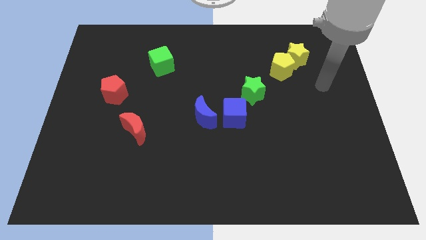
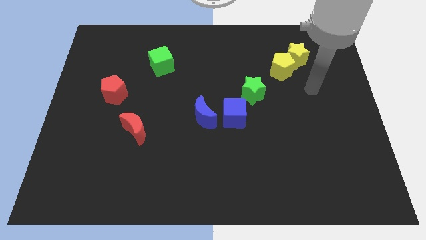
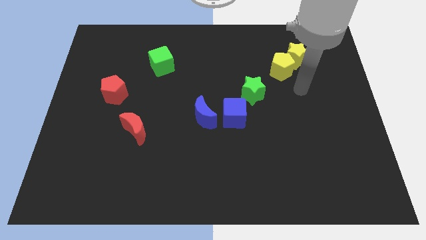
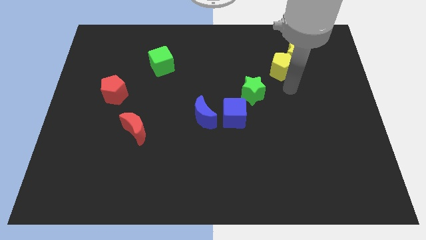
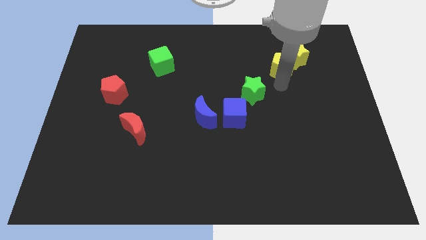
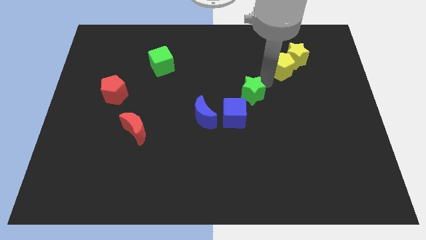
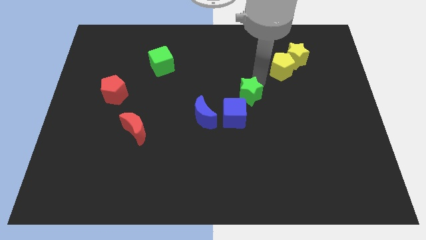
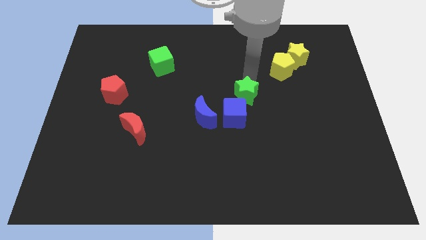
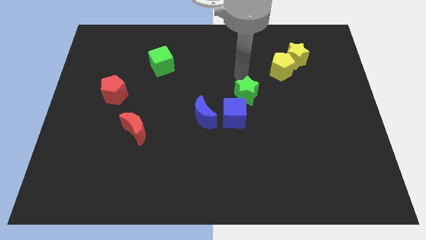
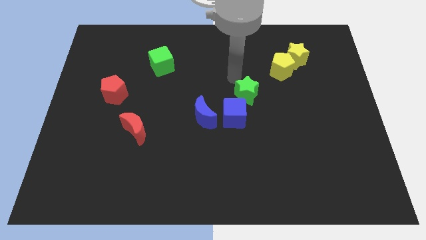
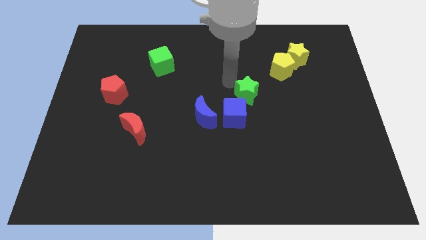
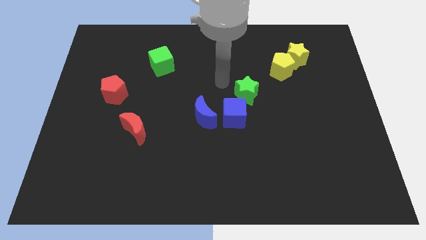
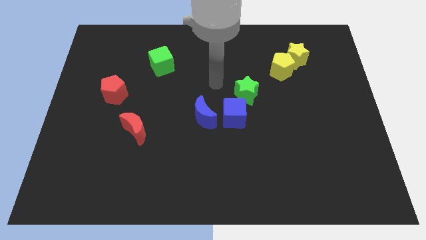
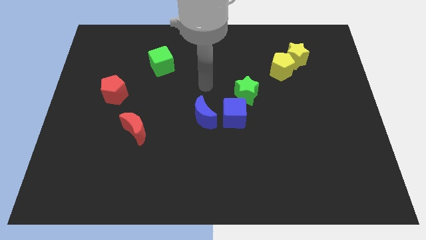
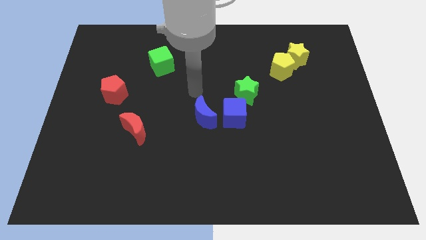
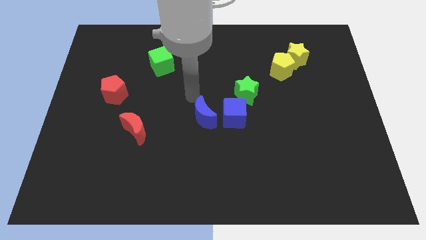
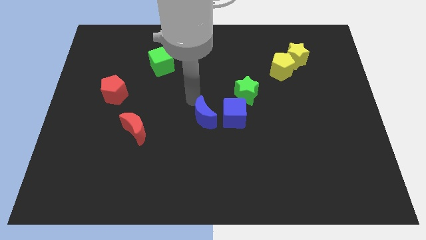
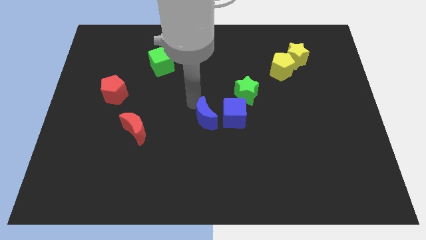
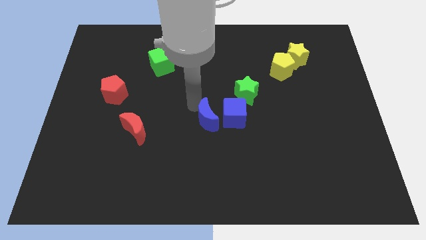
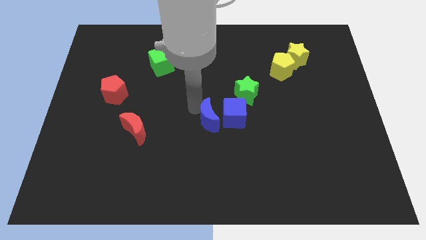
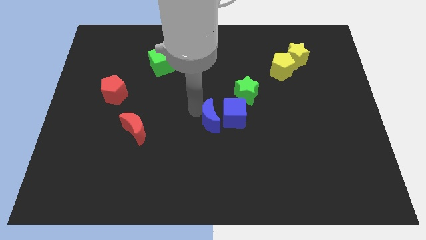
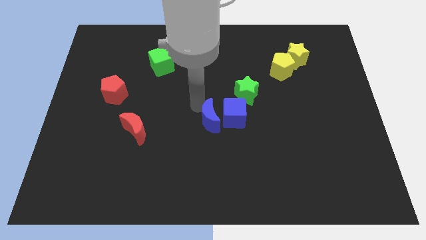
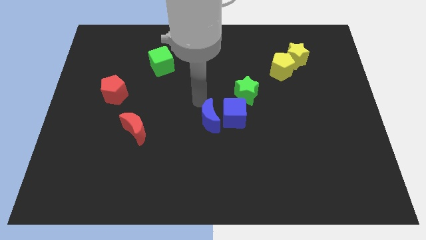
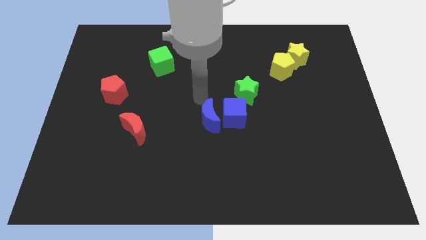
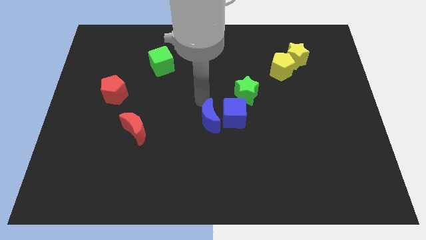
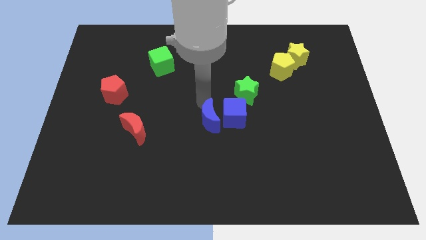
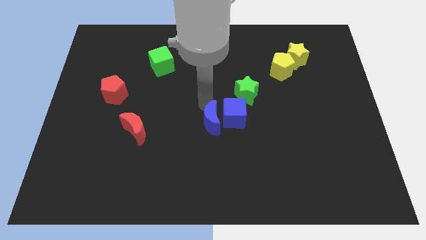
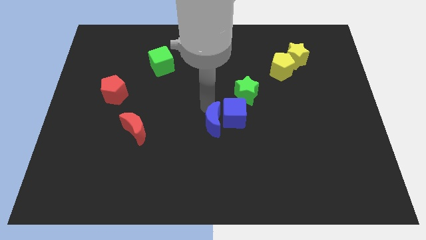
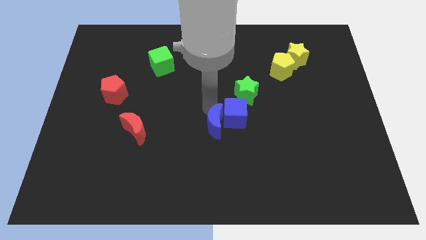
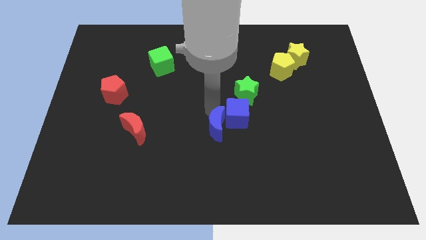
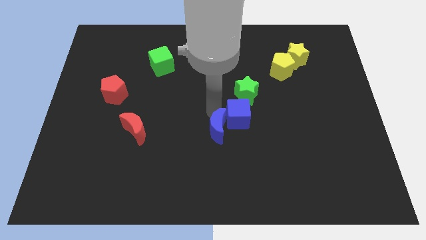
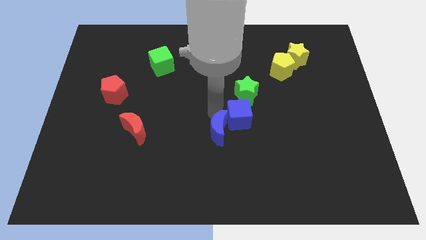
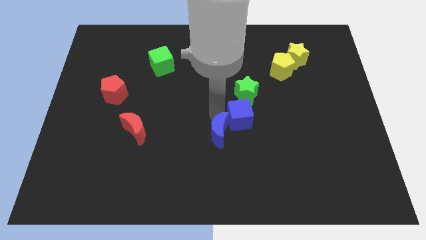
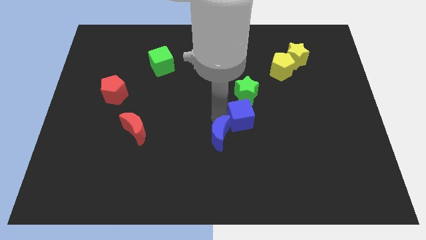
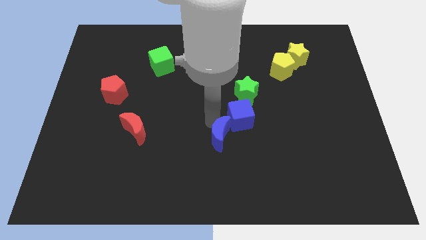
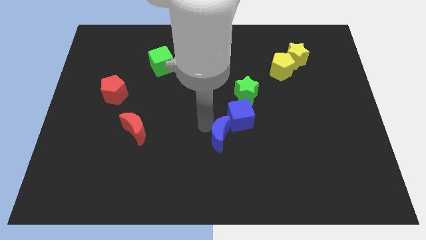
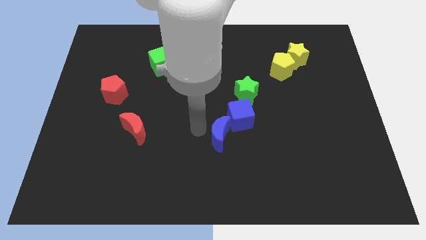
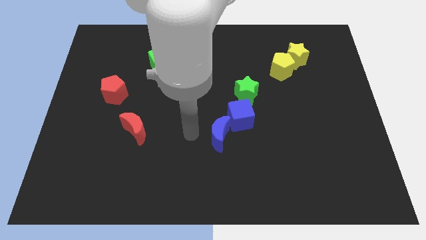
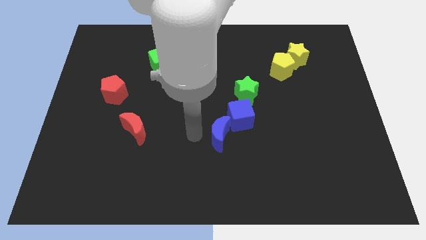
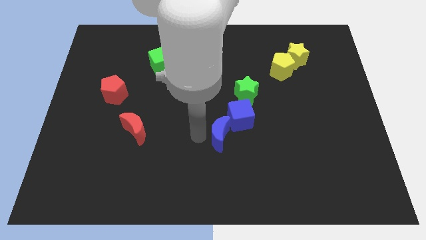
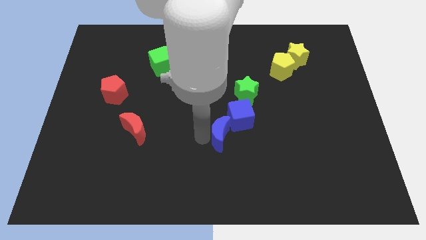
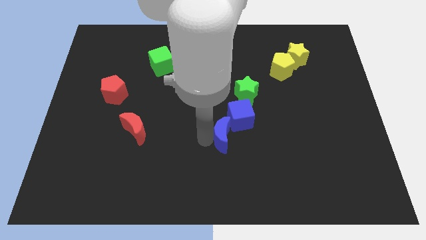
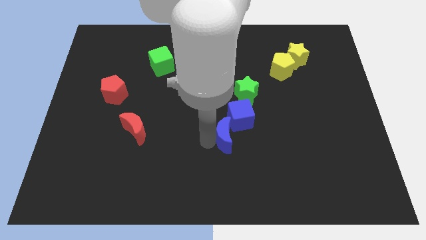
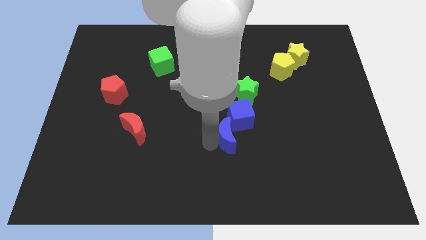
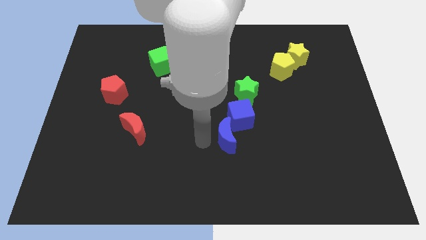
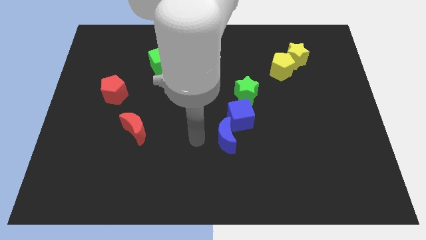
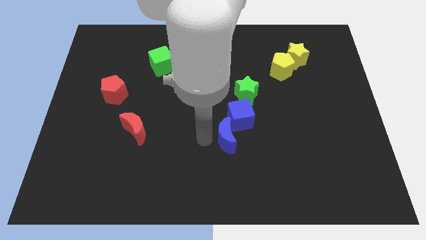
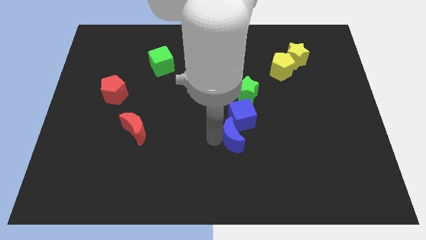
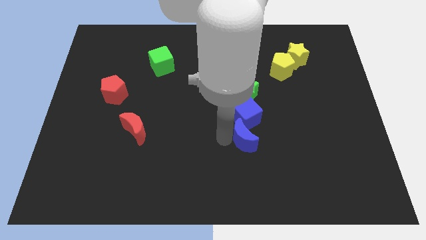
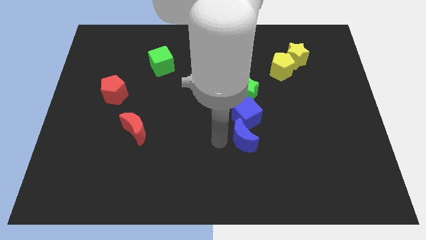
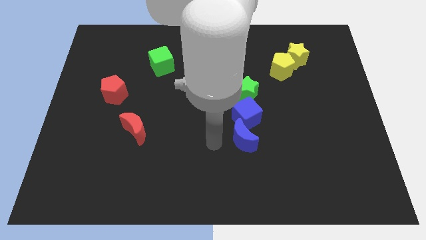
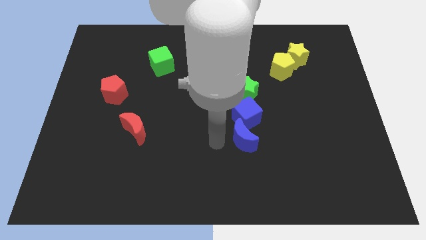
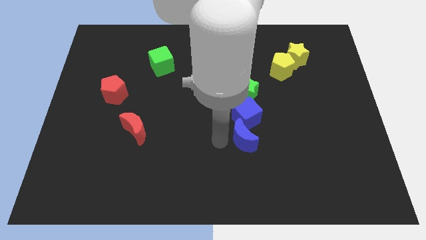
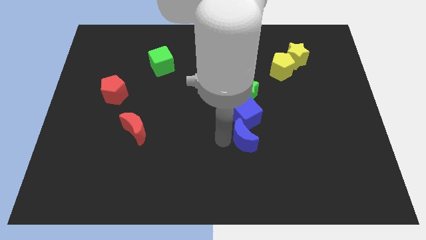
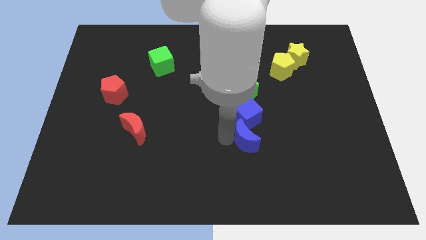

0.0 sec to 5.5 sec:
move the blue moon to the bottom right of the blue cube

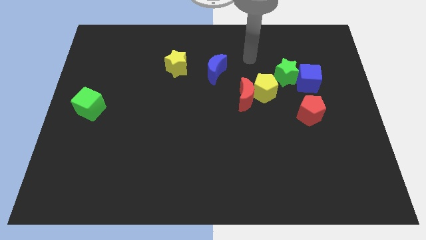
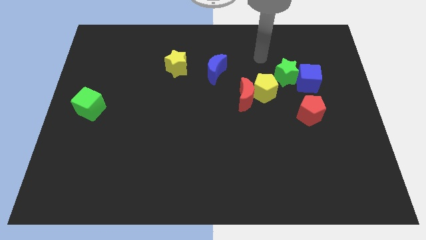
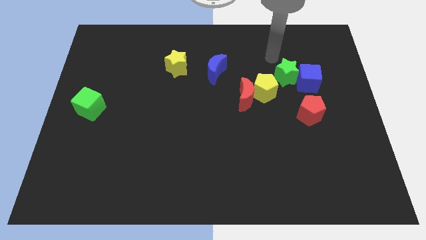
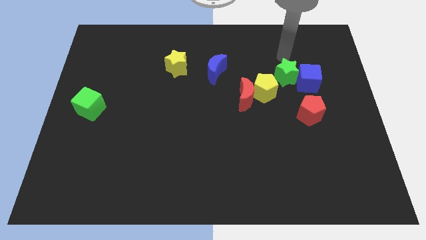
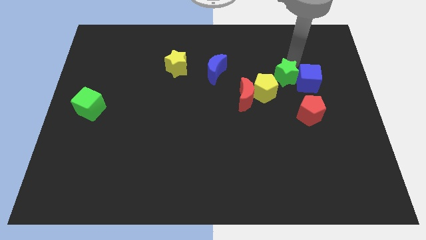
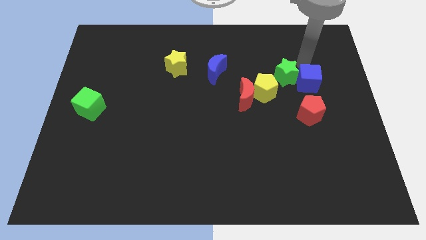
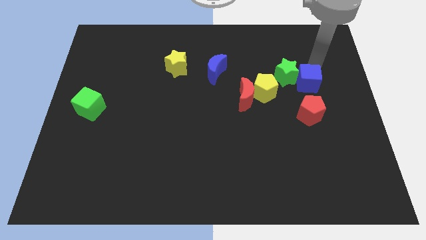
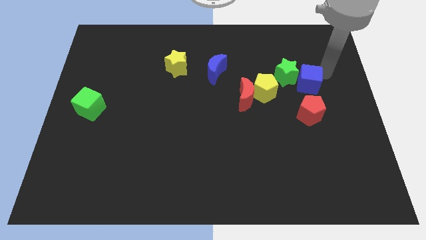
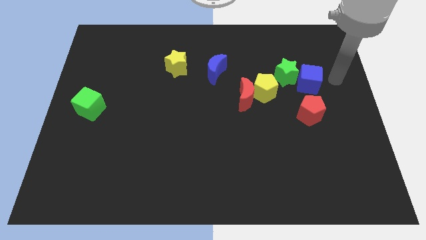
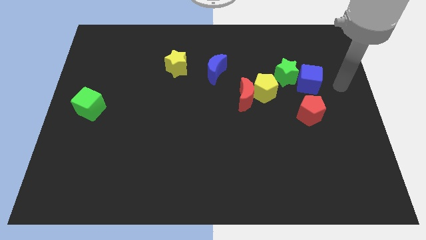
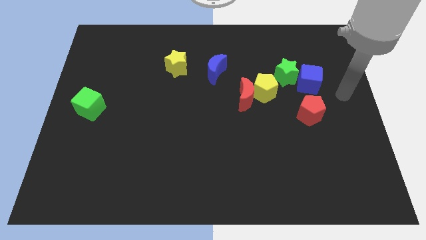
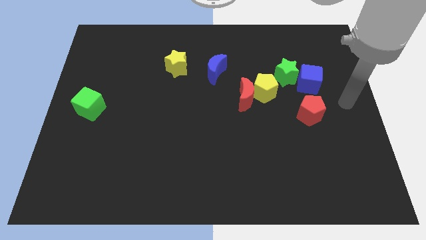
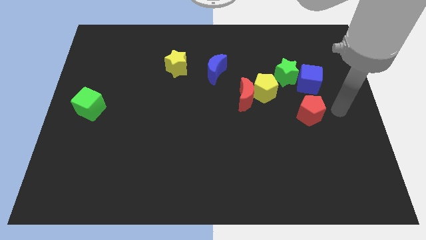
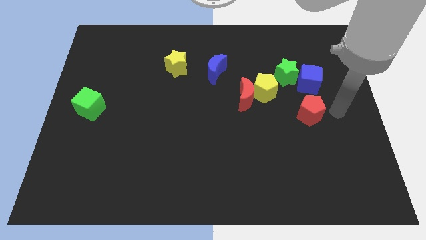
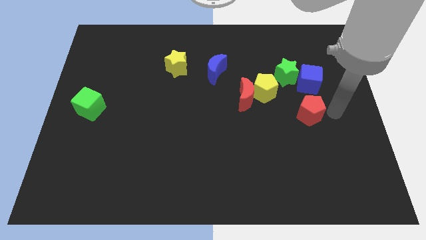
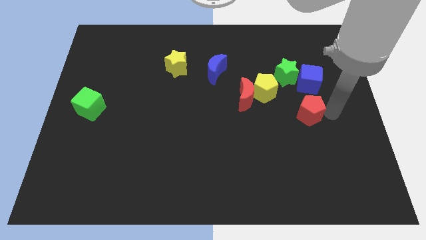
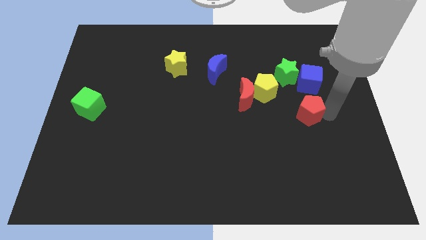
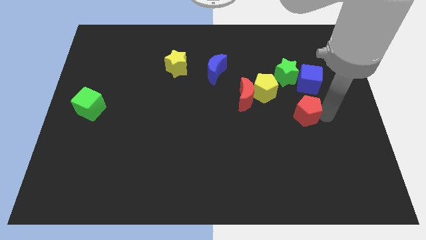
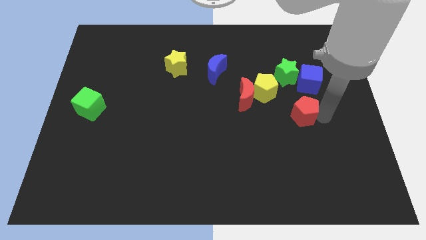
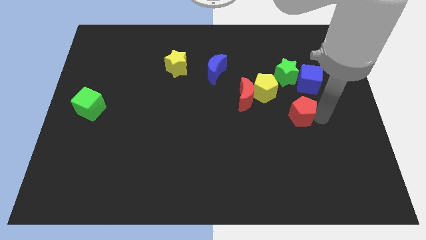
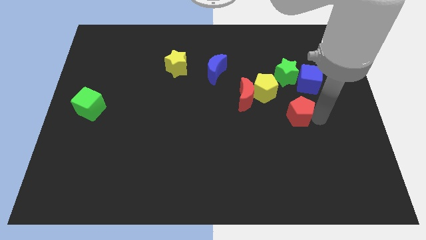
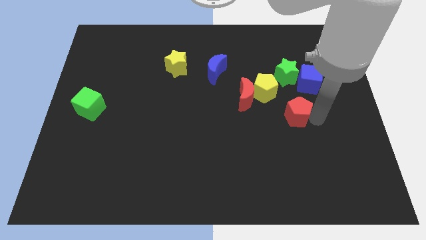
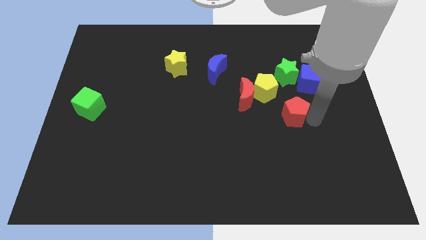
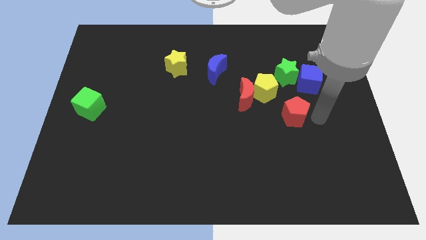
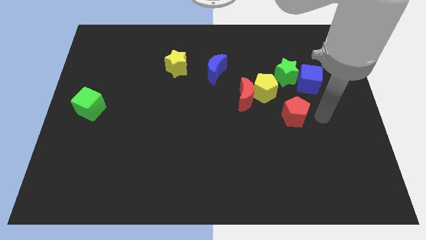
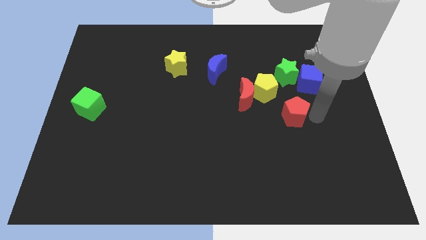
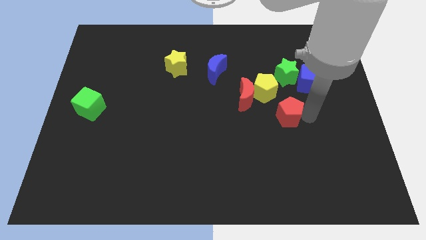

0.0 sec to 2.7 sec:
move the red pentagon diagonally down and to the right of the red moon
